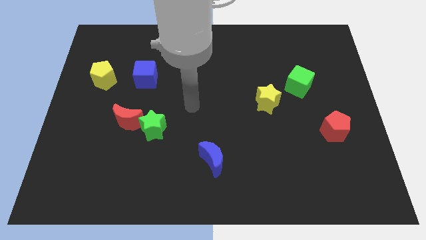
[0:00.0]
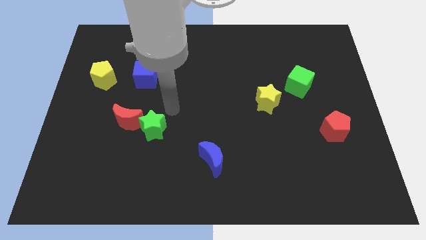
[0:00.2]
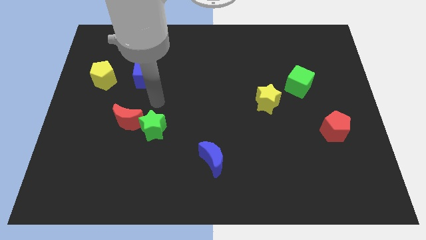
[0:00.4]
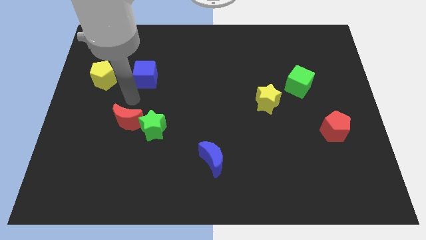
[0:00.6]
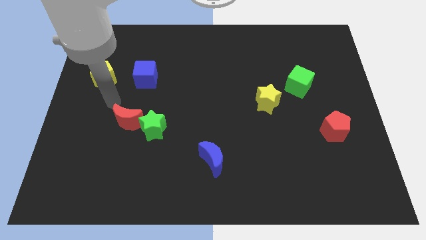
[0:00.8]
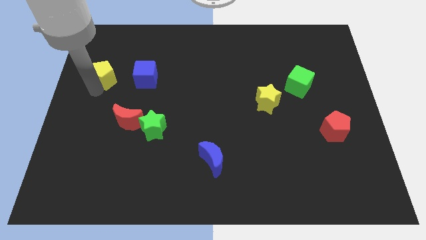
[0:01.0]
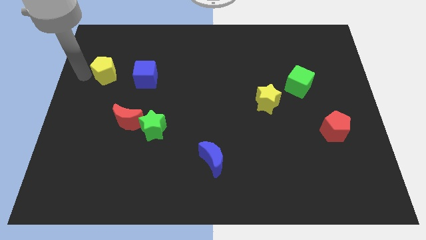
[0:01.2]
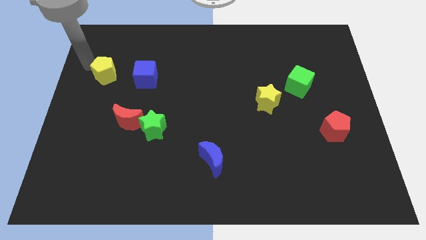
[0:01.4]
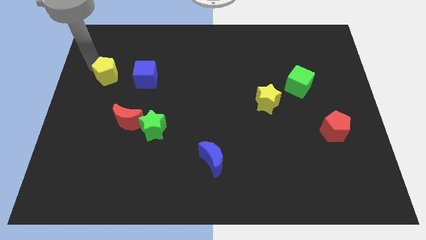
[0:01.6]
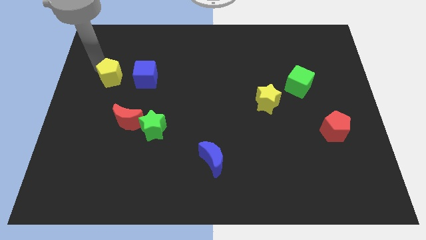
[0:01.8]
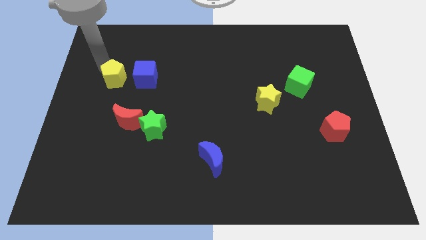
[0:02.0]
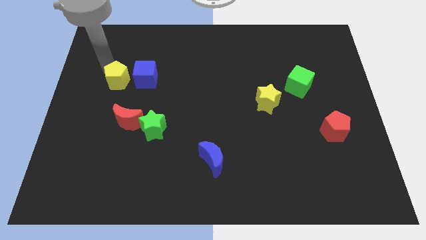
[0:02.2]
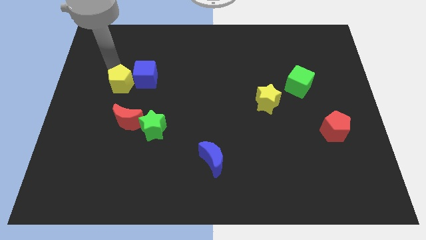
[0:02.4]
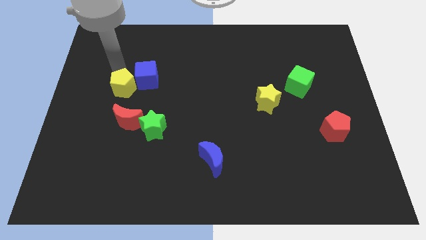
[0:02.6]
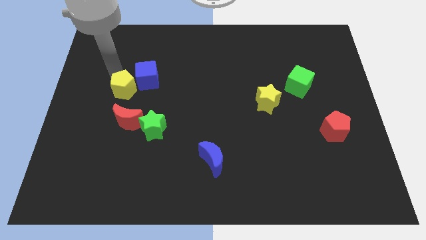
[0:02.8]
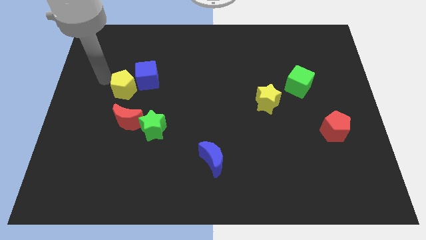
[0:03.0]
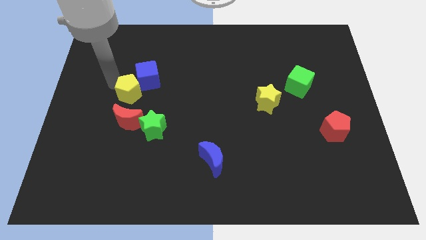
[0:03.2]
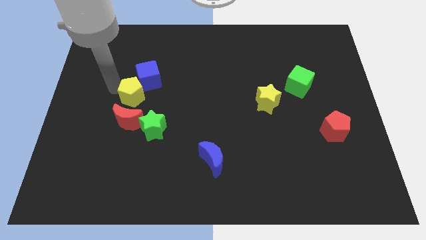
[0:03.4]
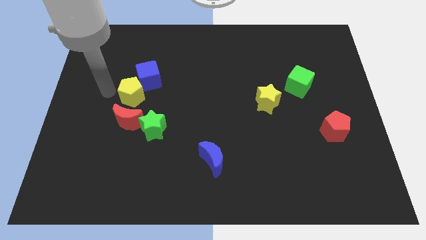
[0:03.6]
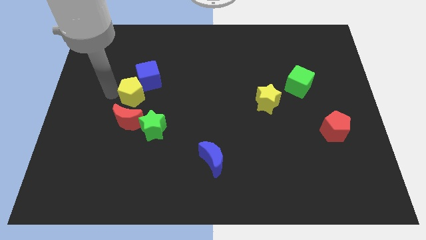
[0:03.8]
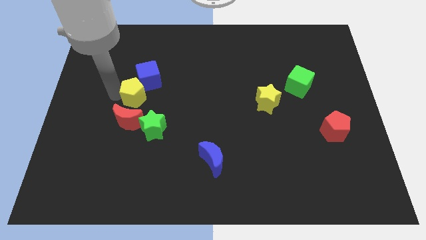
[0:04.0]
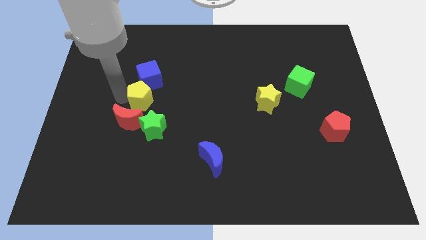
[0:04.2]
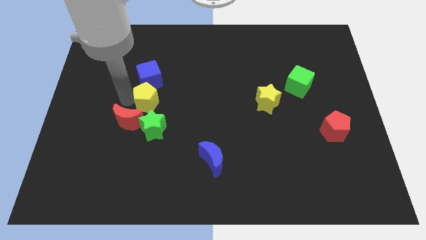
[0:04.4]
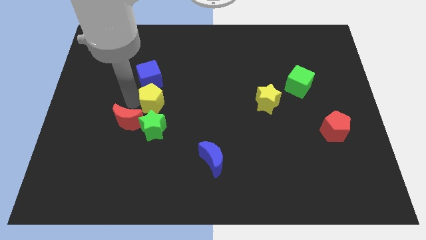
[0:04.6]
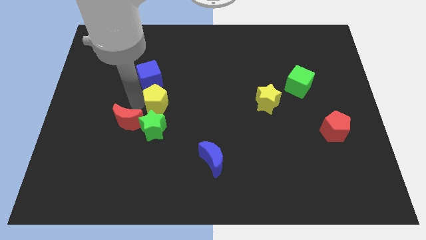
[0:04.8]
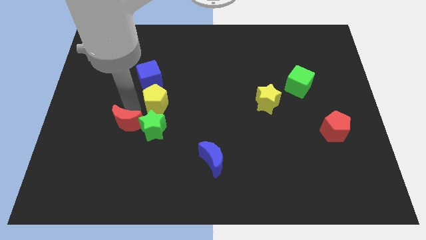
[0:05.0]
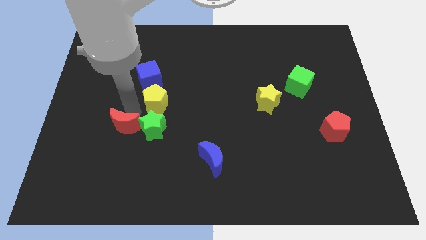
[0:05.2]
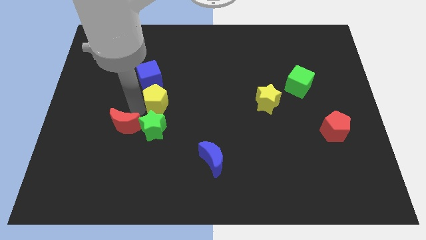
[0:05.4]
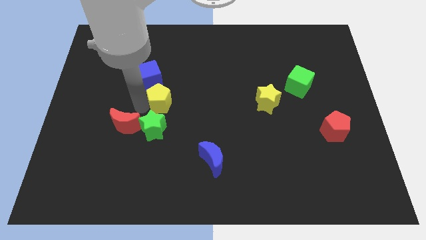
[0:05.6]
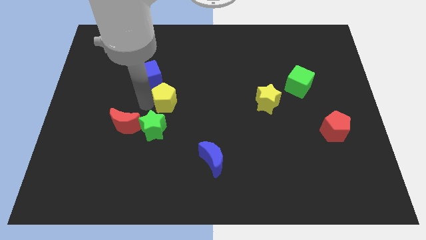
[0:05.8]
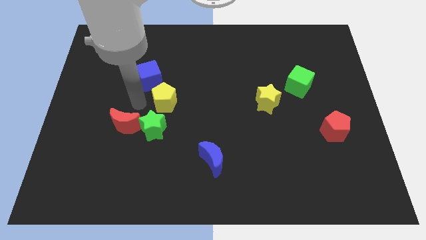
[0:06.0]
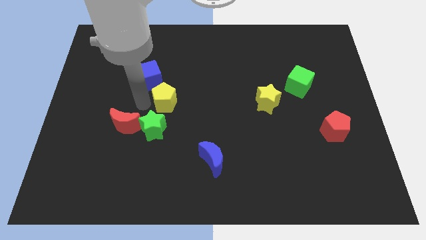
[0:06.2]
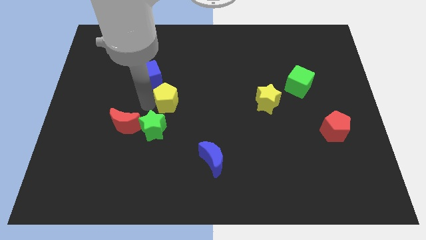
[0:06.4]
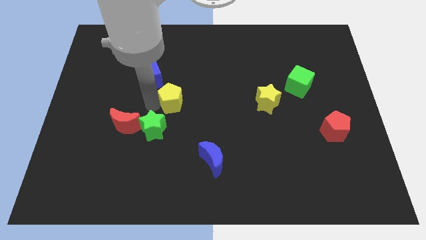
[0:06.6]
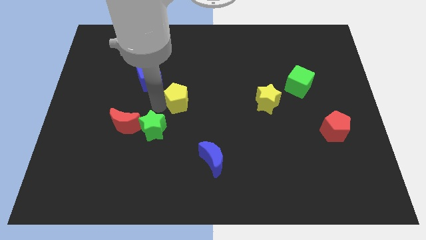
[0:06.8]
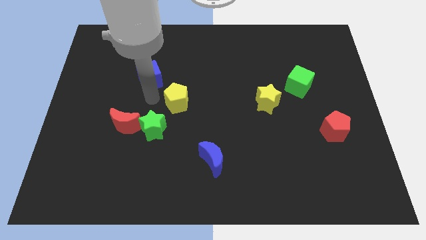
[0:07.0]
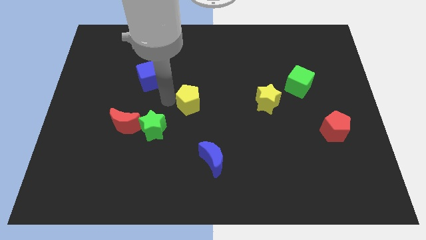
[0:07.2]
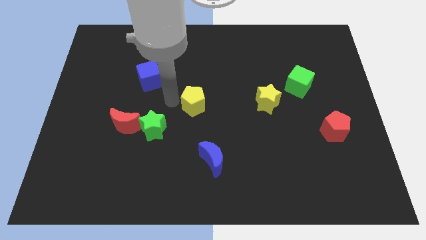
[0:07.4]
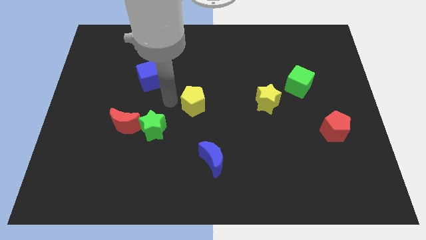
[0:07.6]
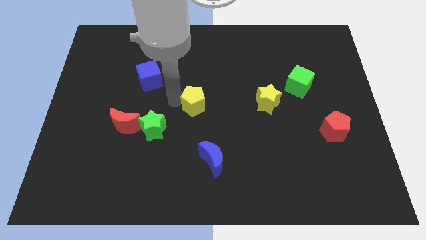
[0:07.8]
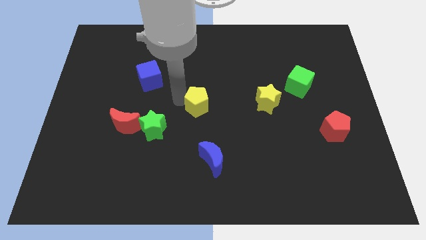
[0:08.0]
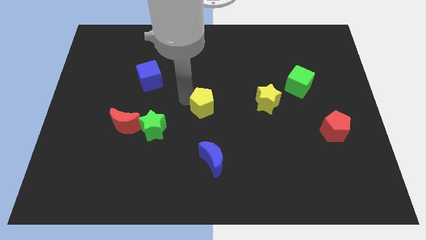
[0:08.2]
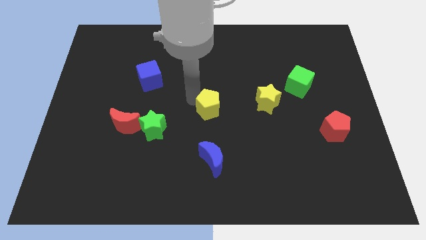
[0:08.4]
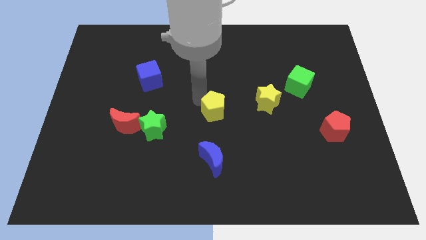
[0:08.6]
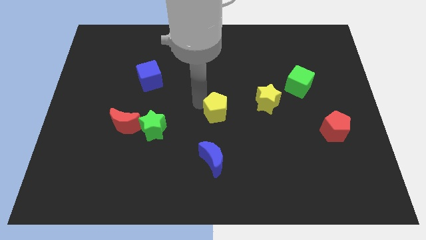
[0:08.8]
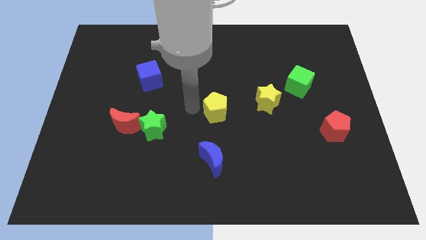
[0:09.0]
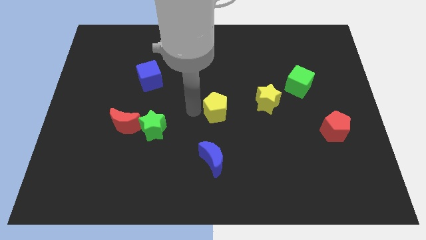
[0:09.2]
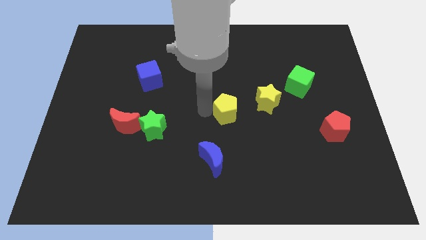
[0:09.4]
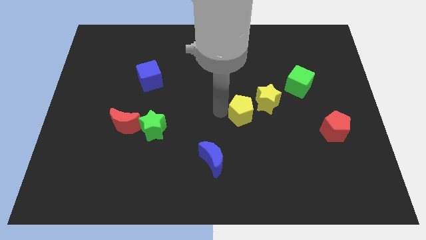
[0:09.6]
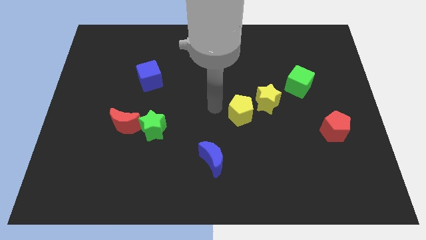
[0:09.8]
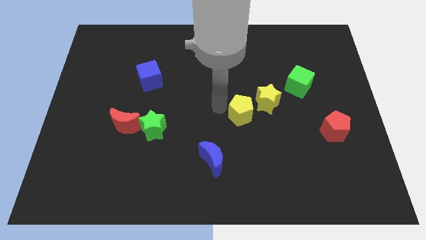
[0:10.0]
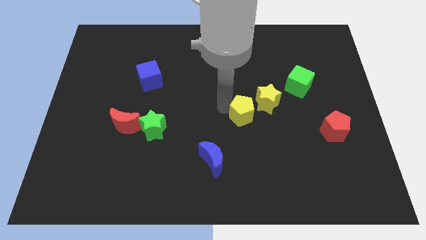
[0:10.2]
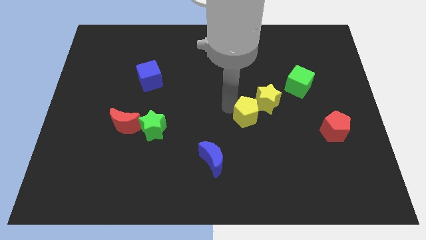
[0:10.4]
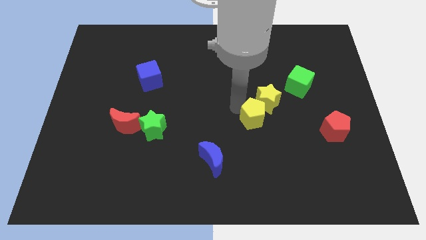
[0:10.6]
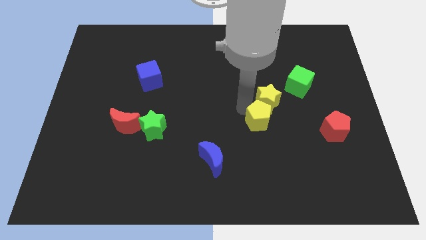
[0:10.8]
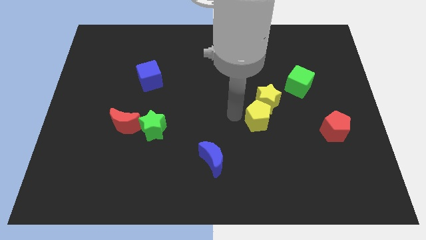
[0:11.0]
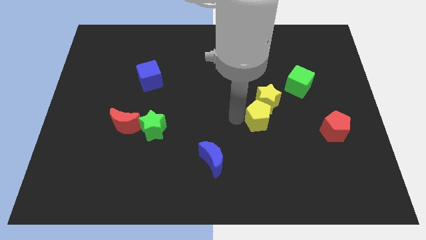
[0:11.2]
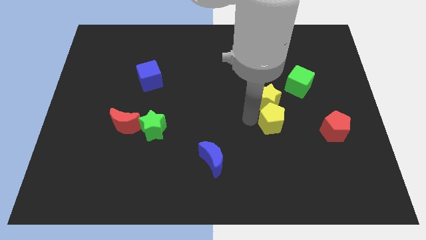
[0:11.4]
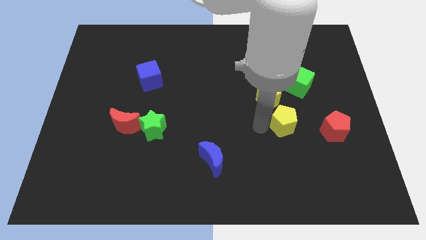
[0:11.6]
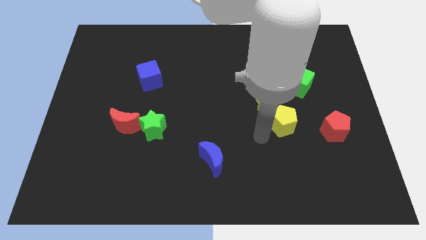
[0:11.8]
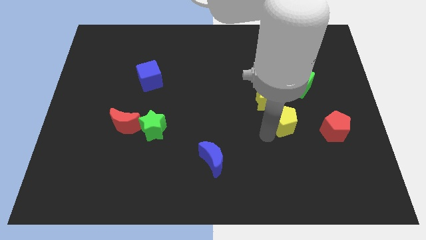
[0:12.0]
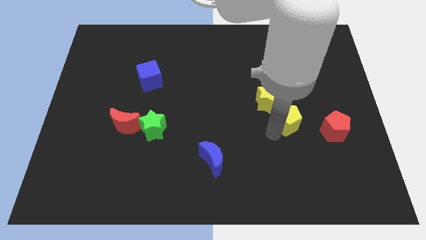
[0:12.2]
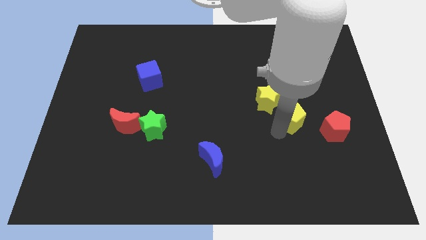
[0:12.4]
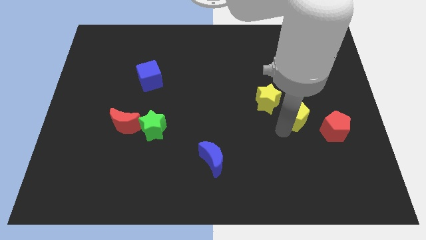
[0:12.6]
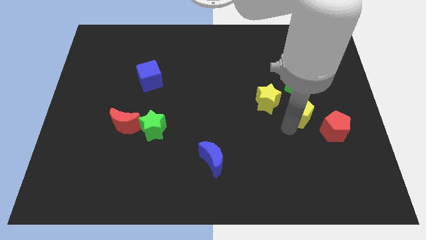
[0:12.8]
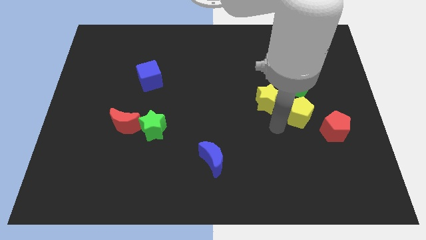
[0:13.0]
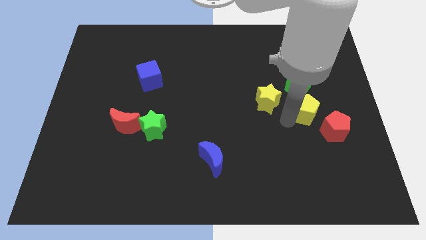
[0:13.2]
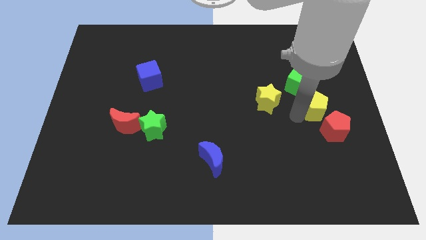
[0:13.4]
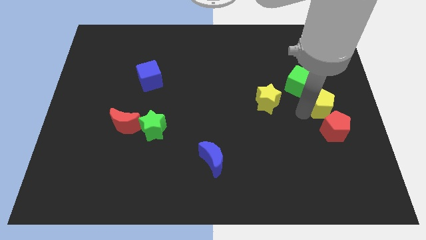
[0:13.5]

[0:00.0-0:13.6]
move the yellow pentagon to the right side of the board
